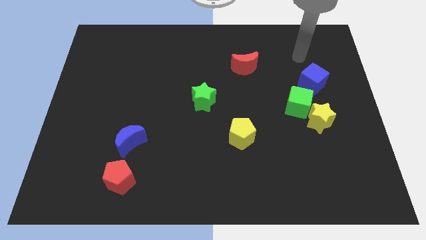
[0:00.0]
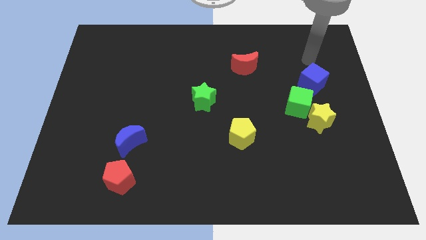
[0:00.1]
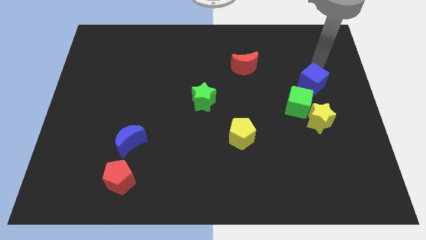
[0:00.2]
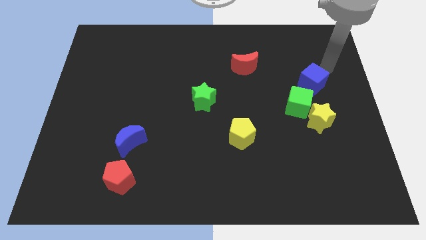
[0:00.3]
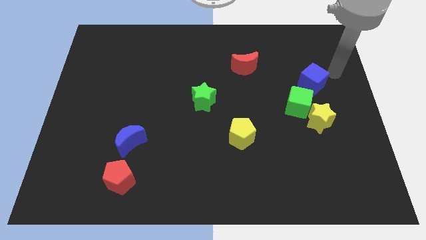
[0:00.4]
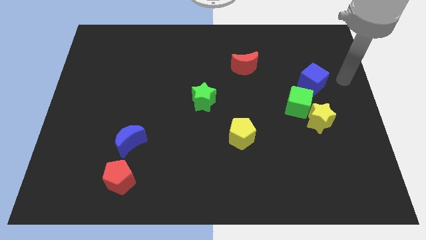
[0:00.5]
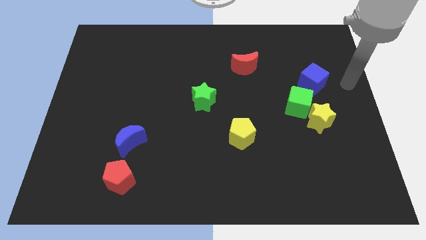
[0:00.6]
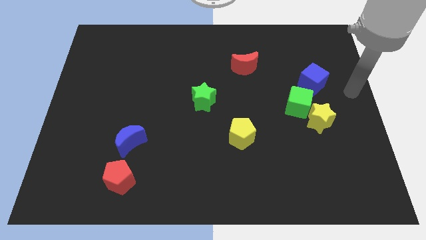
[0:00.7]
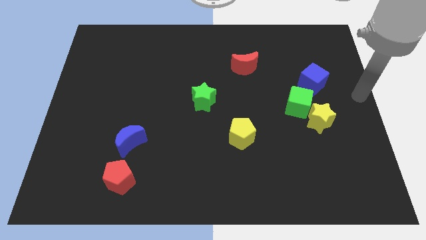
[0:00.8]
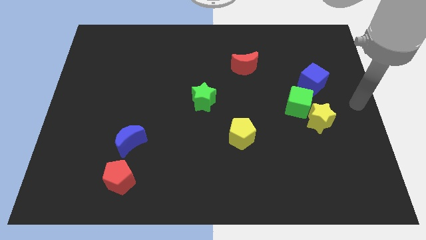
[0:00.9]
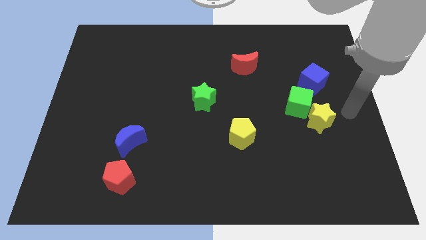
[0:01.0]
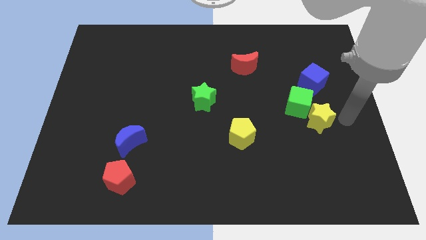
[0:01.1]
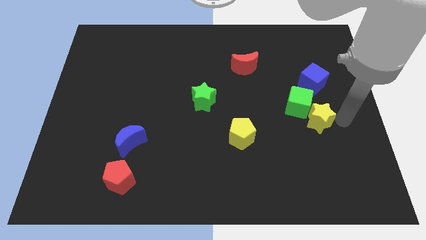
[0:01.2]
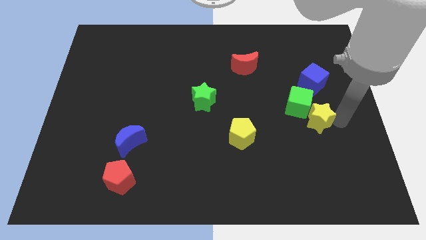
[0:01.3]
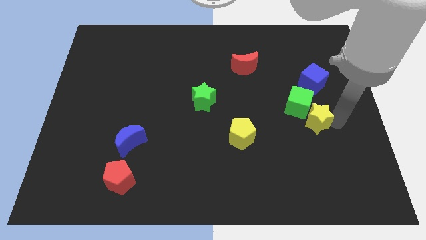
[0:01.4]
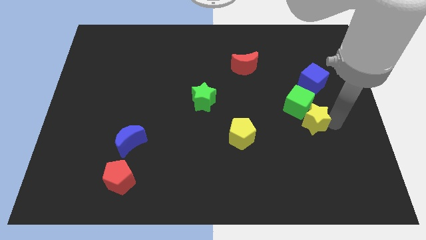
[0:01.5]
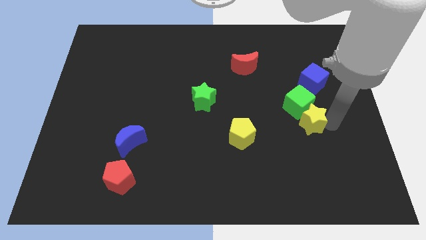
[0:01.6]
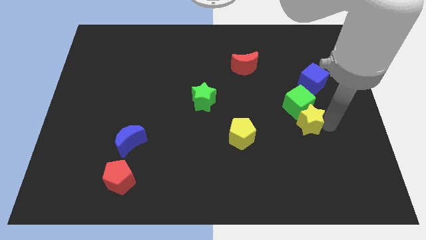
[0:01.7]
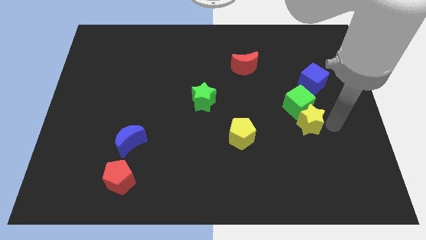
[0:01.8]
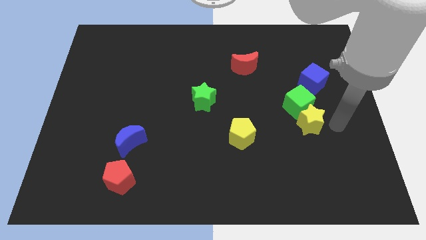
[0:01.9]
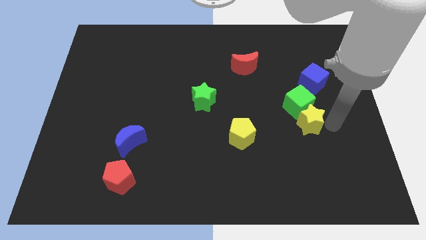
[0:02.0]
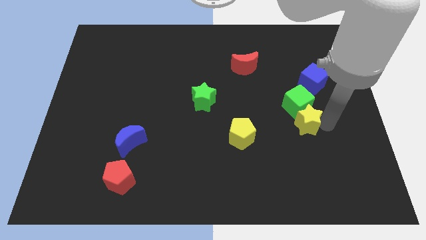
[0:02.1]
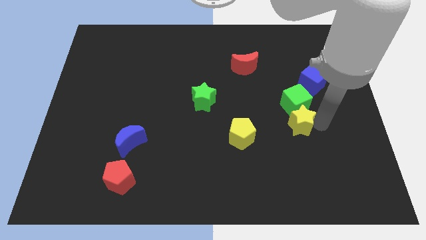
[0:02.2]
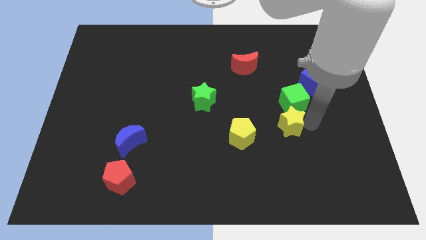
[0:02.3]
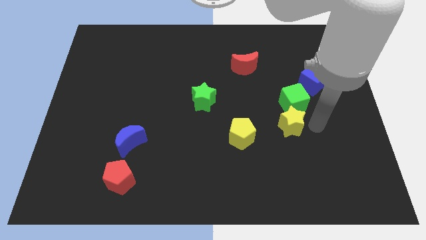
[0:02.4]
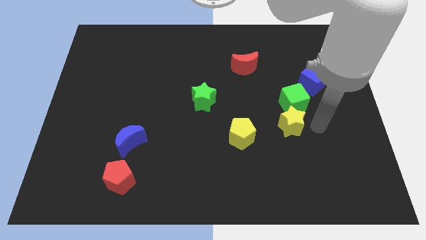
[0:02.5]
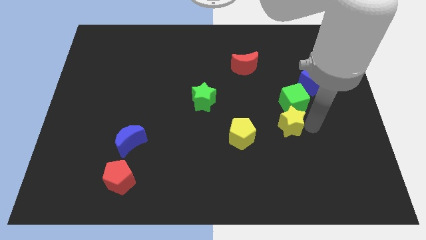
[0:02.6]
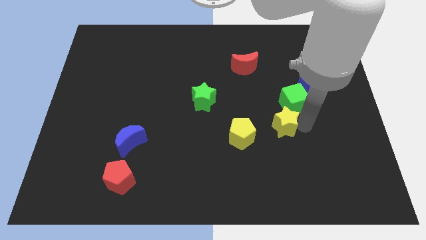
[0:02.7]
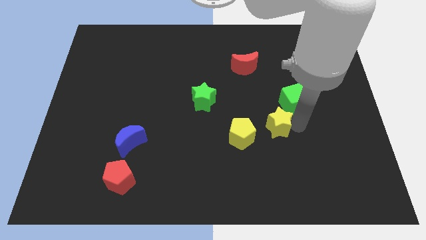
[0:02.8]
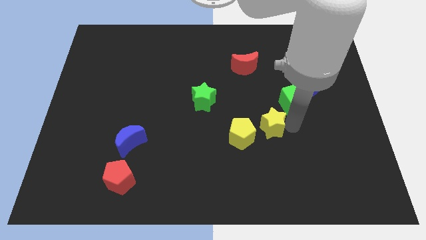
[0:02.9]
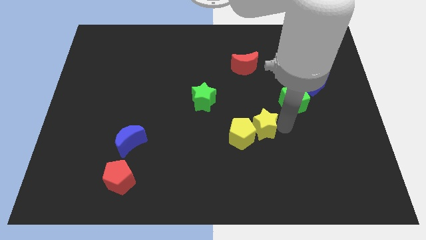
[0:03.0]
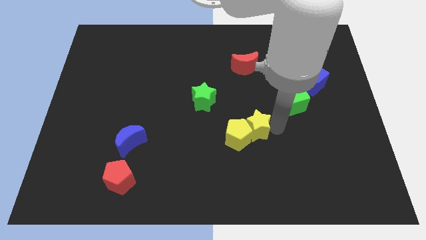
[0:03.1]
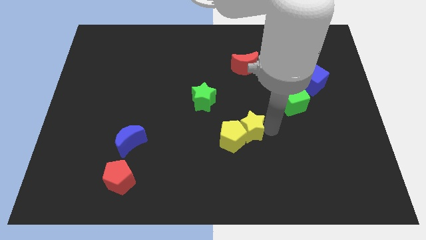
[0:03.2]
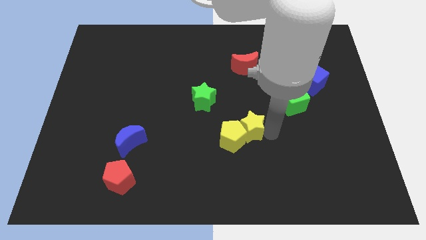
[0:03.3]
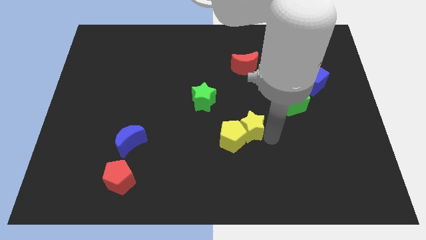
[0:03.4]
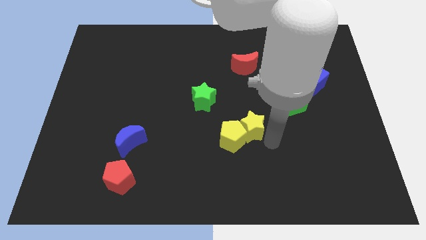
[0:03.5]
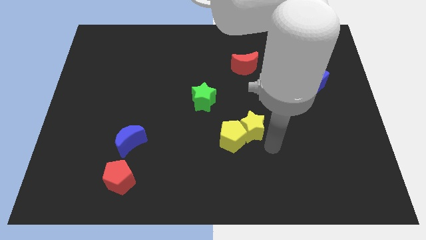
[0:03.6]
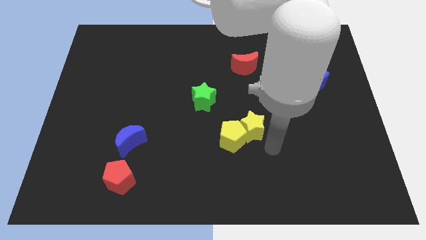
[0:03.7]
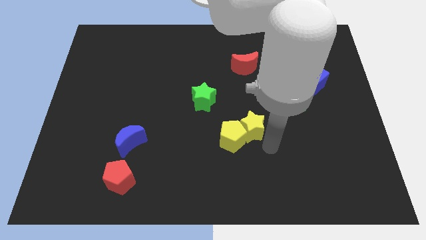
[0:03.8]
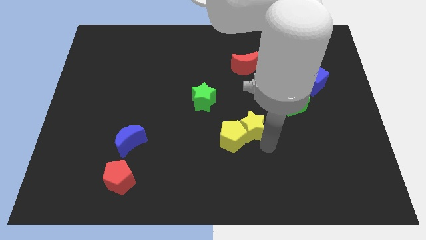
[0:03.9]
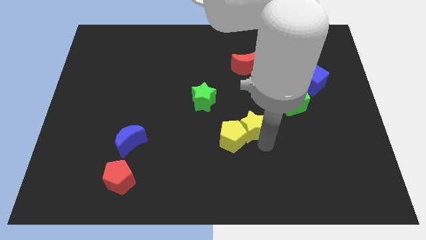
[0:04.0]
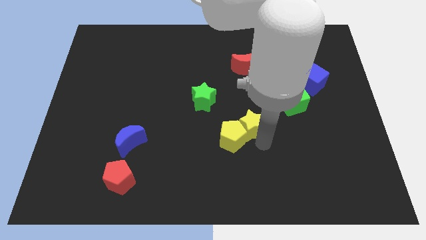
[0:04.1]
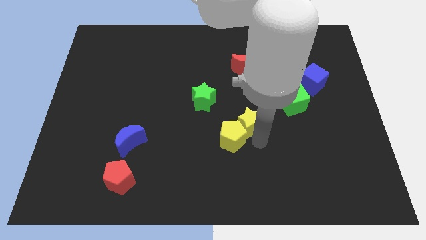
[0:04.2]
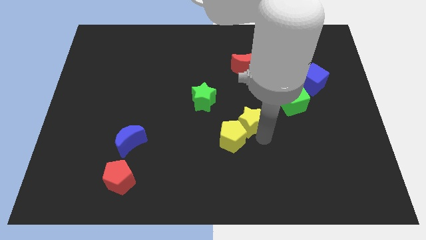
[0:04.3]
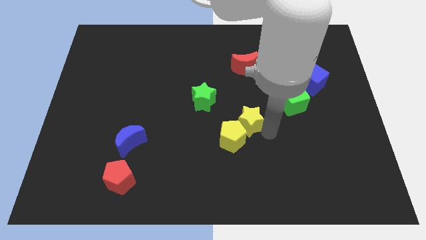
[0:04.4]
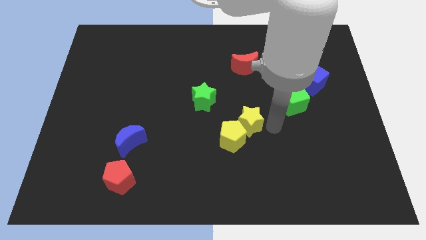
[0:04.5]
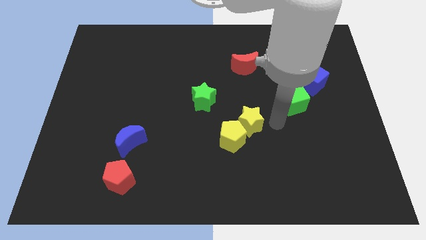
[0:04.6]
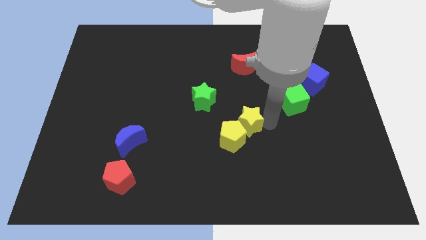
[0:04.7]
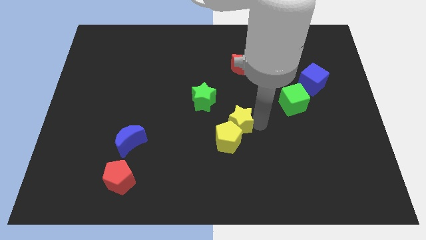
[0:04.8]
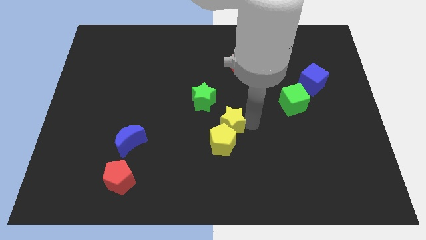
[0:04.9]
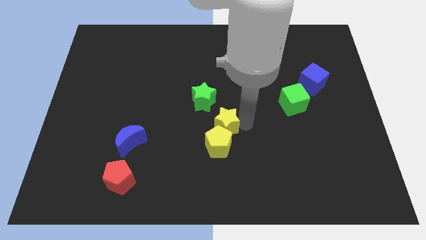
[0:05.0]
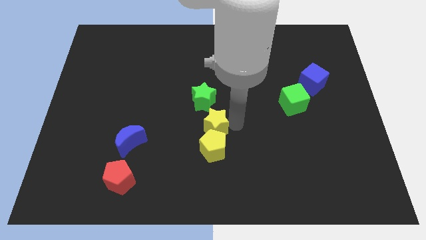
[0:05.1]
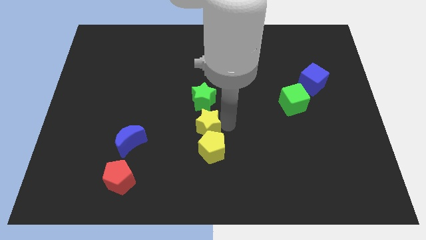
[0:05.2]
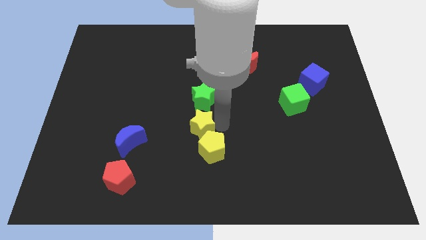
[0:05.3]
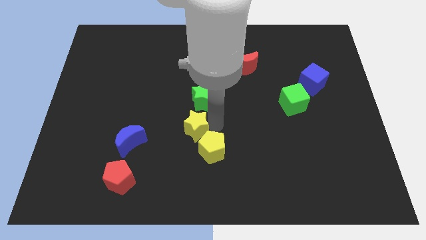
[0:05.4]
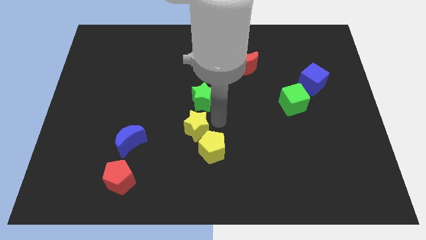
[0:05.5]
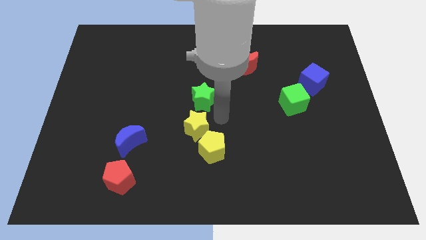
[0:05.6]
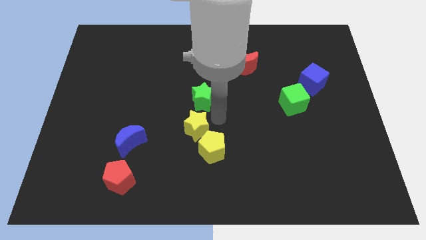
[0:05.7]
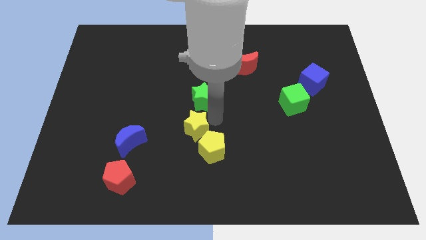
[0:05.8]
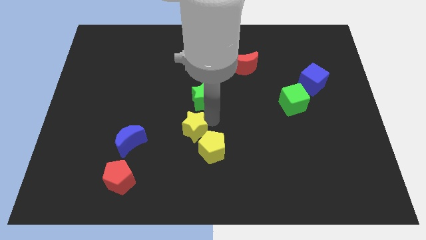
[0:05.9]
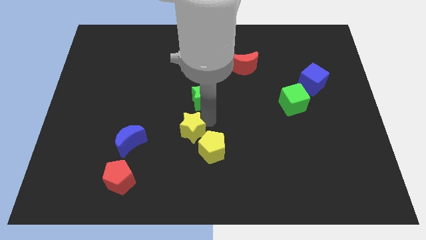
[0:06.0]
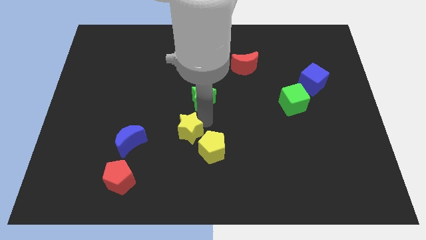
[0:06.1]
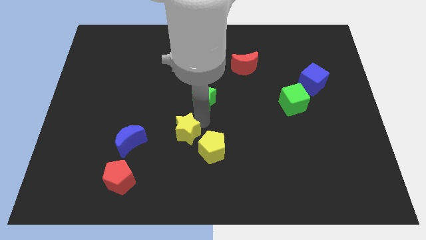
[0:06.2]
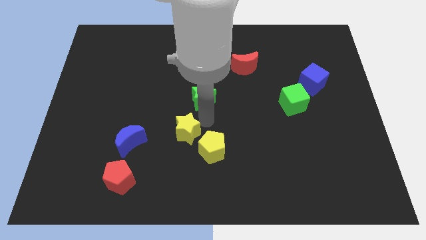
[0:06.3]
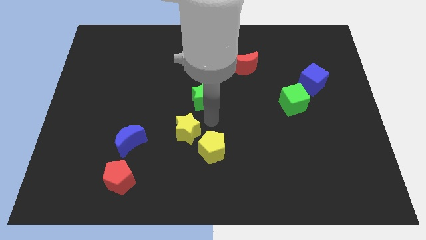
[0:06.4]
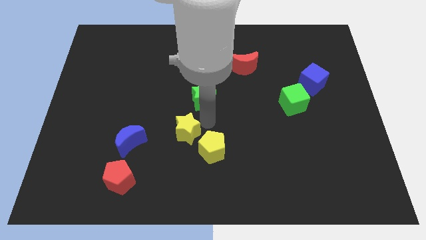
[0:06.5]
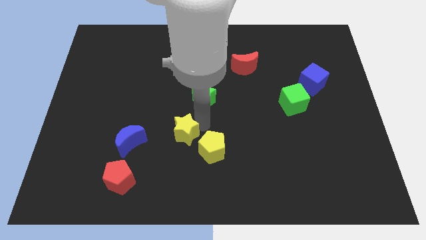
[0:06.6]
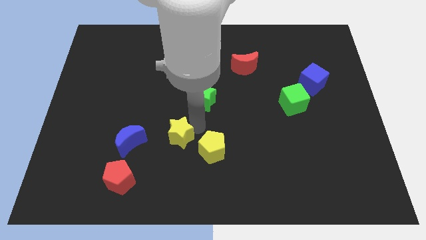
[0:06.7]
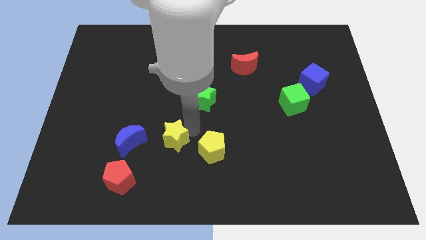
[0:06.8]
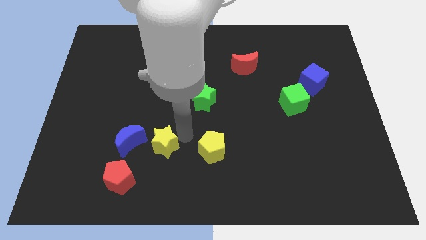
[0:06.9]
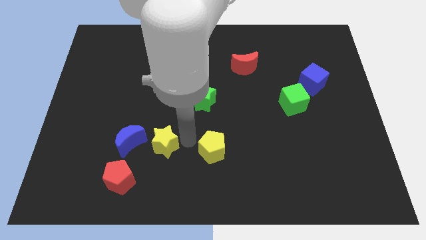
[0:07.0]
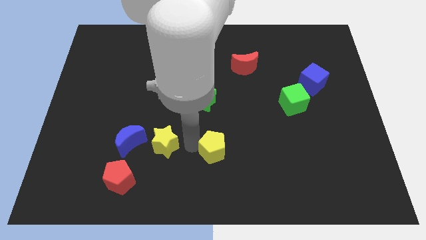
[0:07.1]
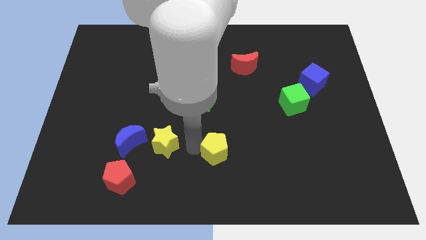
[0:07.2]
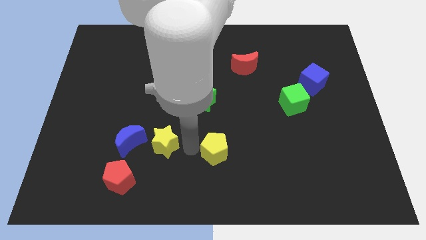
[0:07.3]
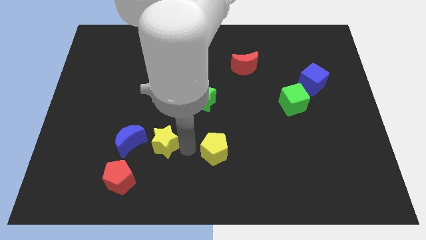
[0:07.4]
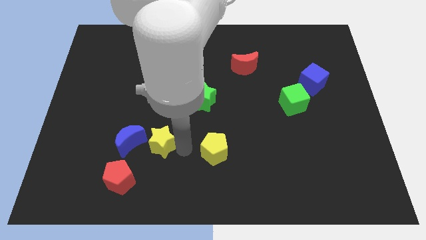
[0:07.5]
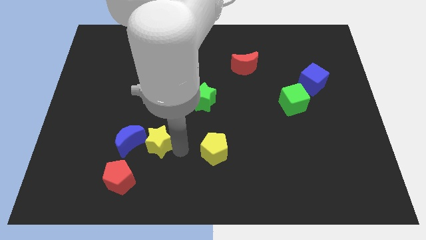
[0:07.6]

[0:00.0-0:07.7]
push the yellow star to the blue moon
